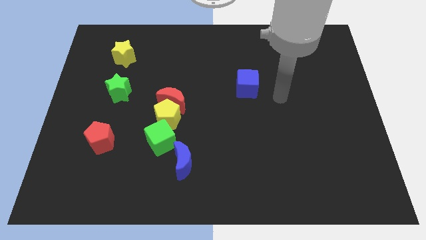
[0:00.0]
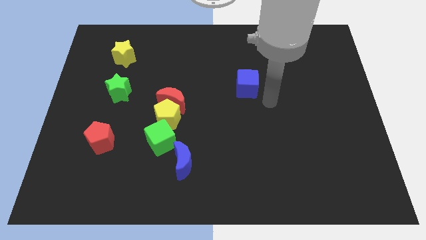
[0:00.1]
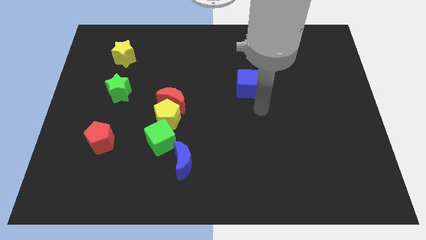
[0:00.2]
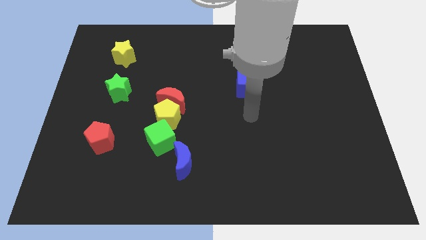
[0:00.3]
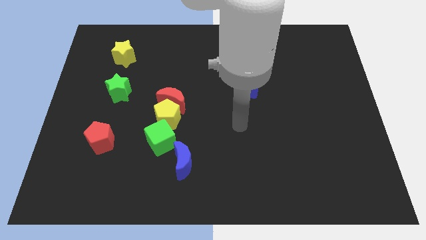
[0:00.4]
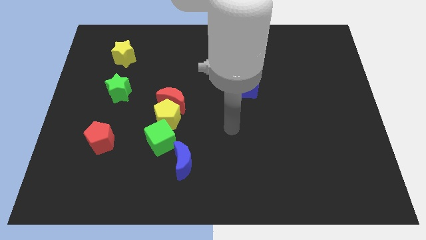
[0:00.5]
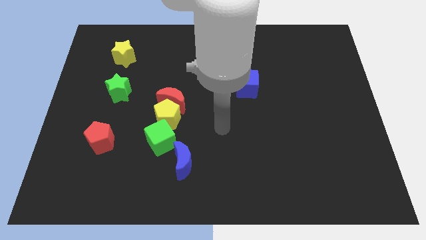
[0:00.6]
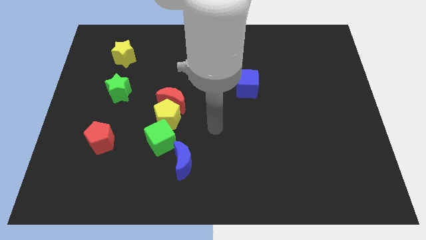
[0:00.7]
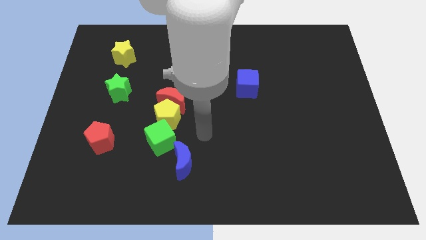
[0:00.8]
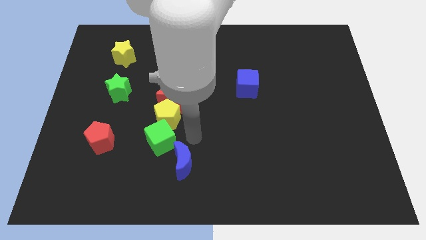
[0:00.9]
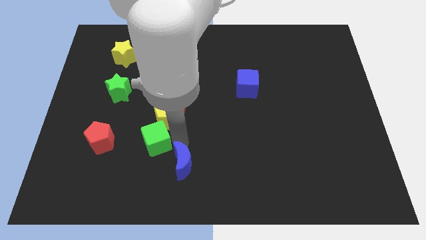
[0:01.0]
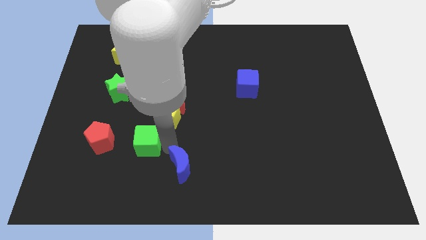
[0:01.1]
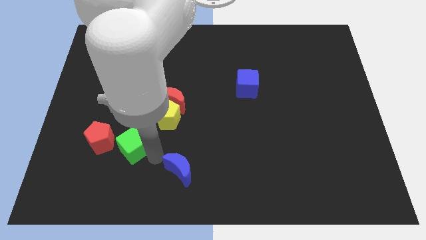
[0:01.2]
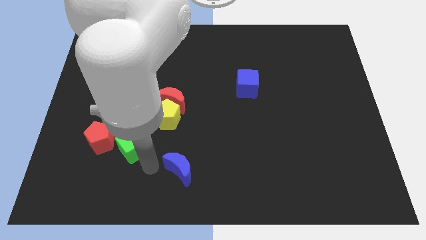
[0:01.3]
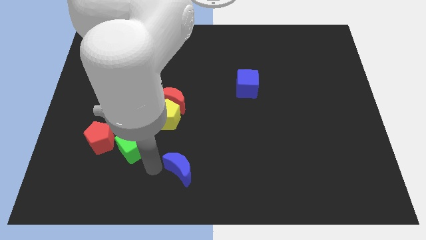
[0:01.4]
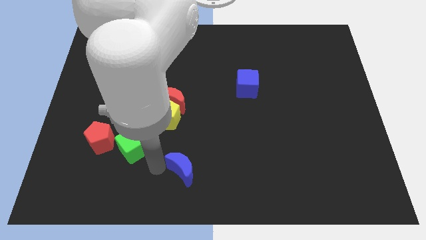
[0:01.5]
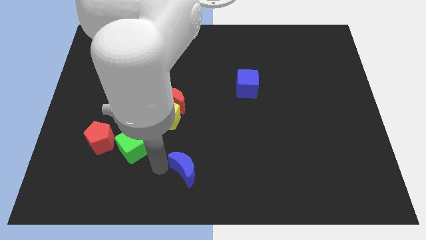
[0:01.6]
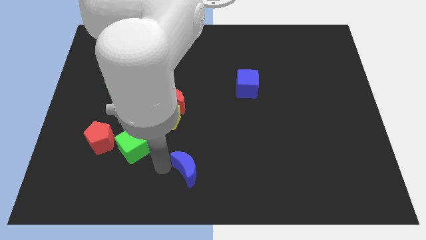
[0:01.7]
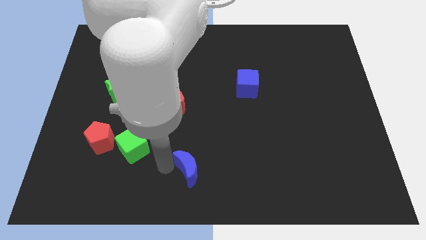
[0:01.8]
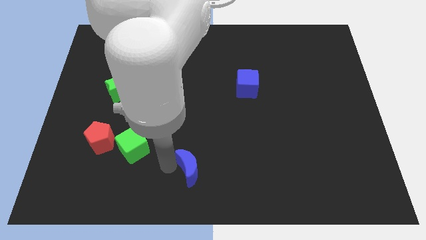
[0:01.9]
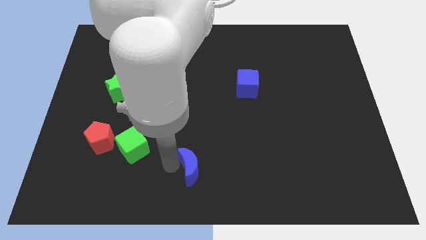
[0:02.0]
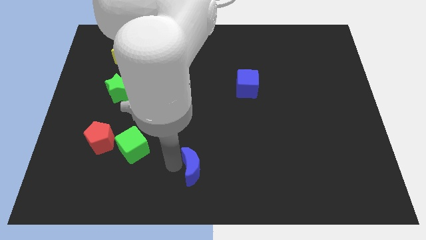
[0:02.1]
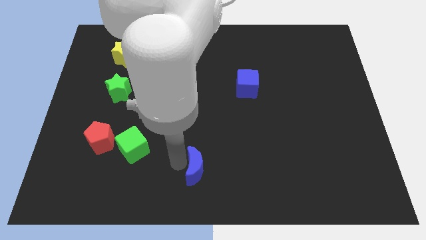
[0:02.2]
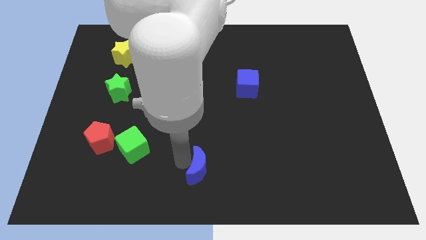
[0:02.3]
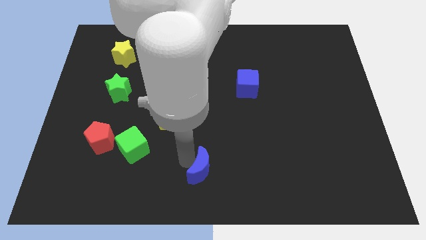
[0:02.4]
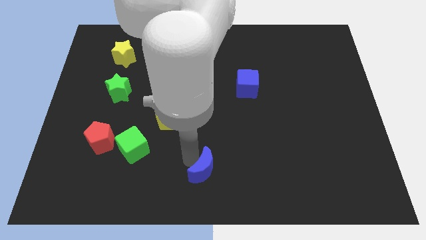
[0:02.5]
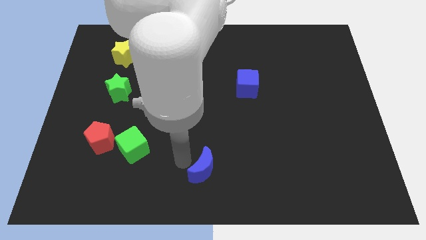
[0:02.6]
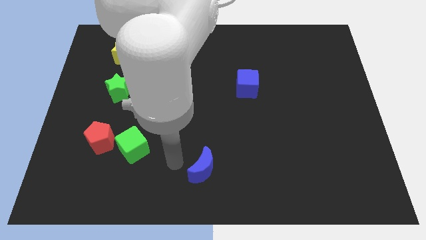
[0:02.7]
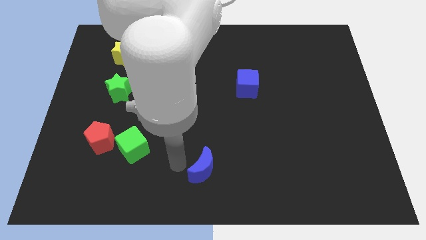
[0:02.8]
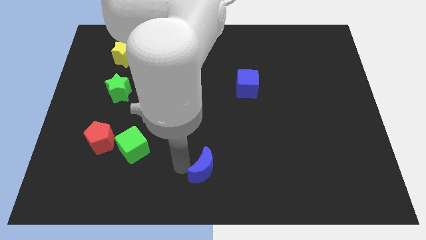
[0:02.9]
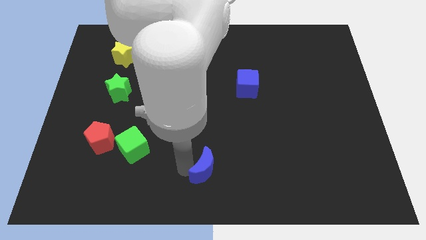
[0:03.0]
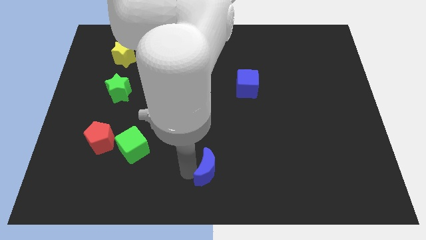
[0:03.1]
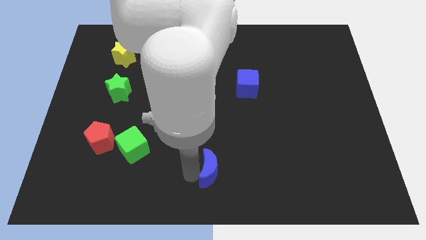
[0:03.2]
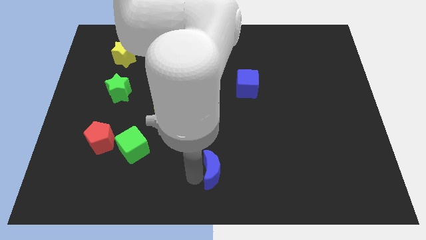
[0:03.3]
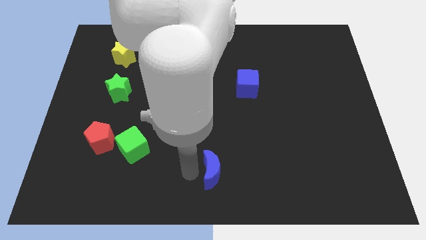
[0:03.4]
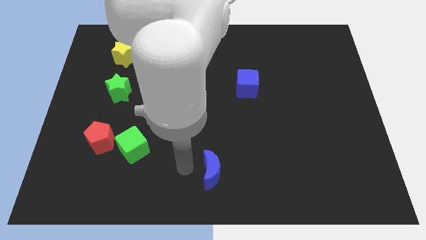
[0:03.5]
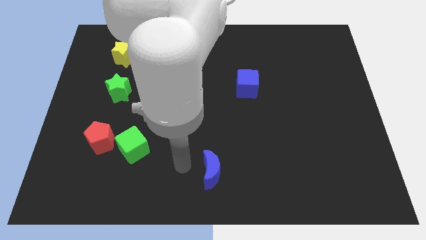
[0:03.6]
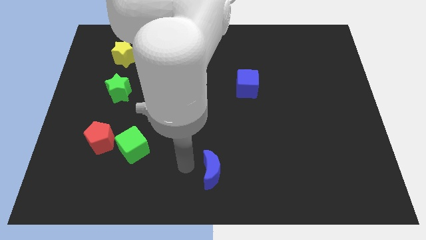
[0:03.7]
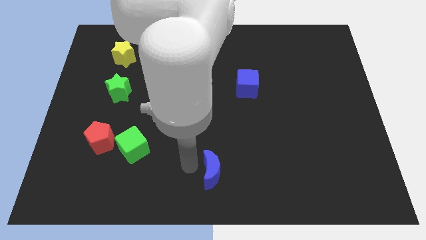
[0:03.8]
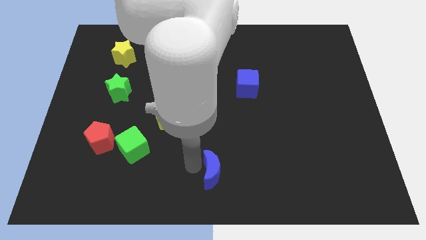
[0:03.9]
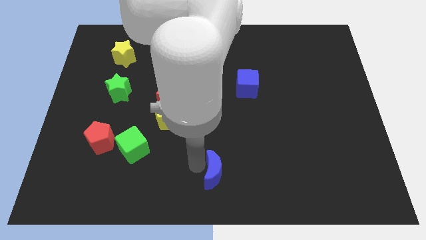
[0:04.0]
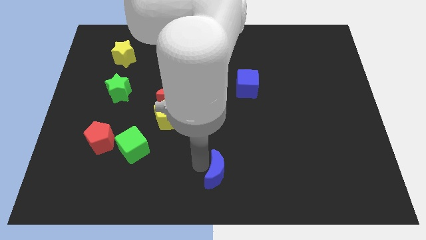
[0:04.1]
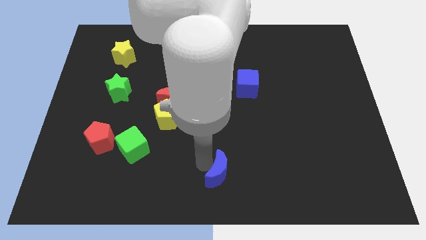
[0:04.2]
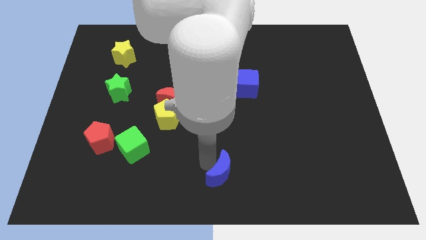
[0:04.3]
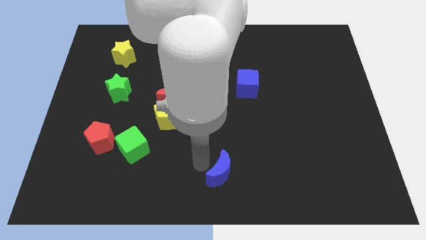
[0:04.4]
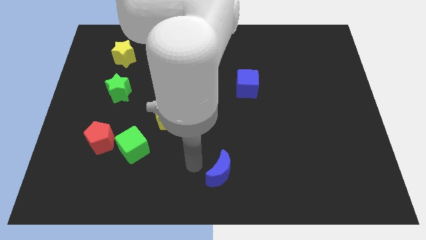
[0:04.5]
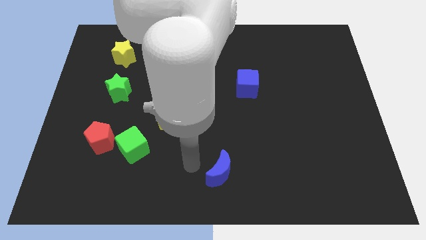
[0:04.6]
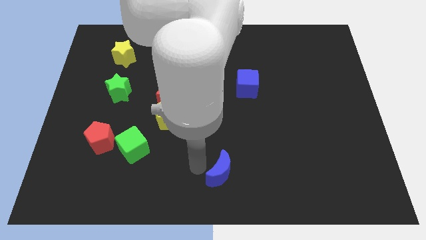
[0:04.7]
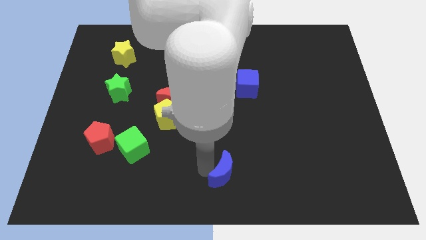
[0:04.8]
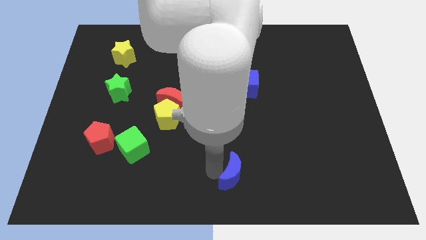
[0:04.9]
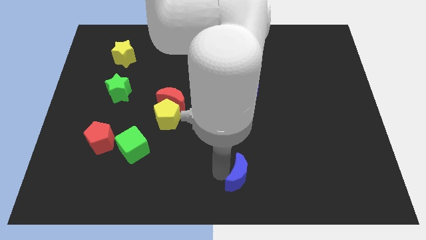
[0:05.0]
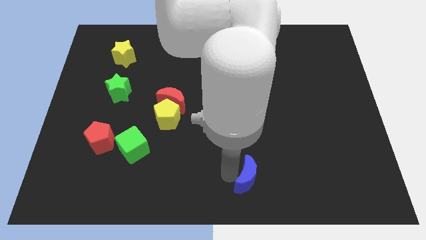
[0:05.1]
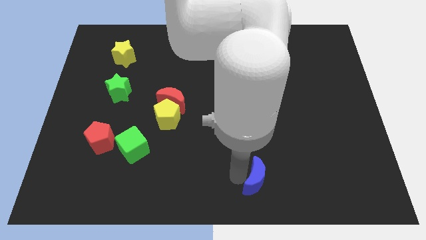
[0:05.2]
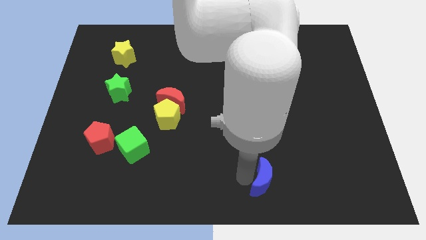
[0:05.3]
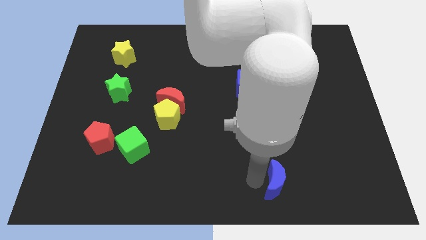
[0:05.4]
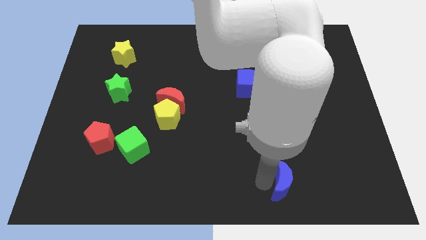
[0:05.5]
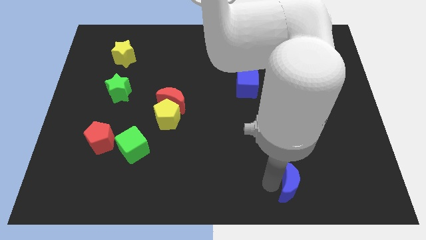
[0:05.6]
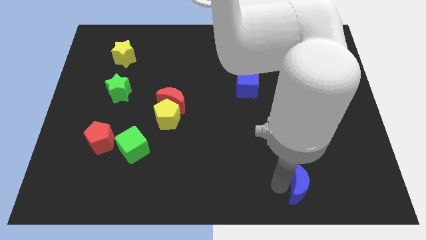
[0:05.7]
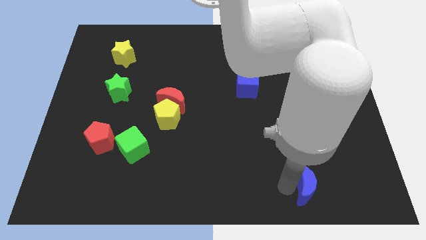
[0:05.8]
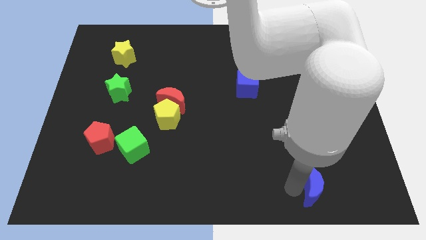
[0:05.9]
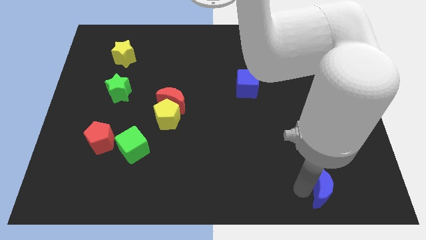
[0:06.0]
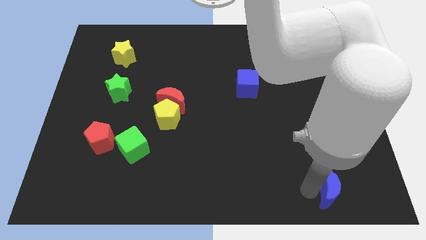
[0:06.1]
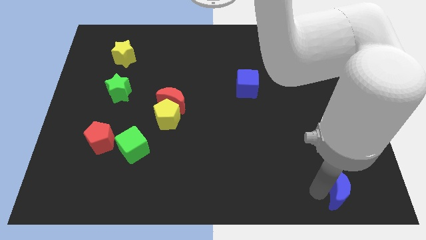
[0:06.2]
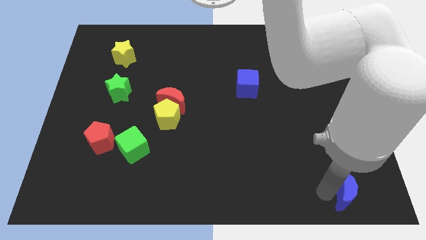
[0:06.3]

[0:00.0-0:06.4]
move the blue moon to the lower right corner
